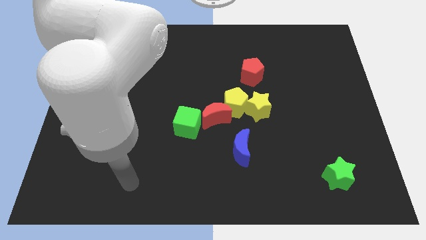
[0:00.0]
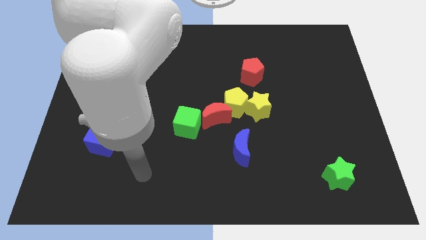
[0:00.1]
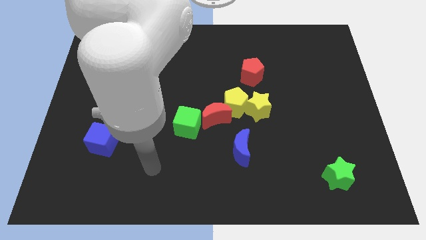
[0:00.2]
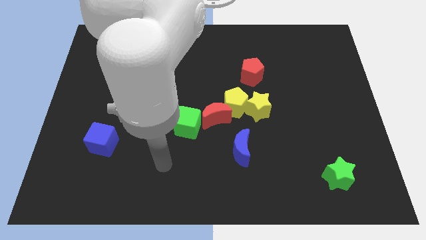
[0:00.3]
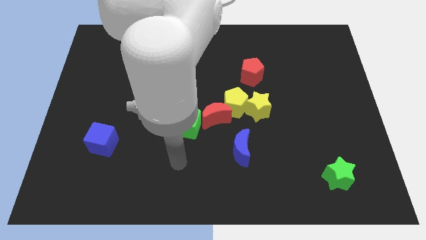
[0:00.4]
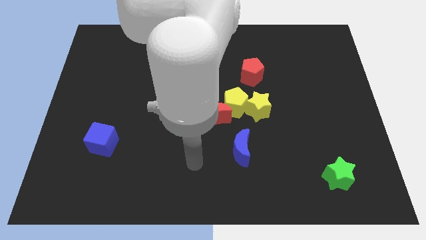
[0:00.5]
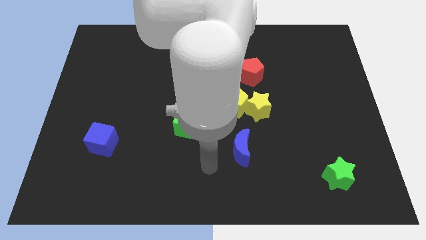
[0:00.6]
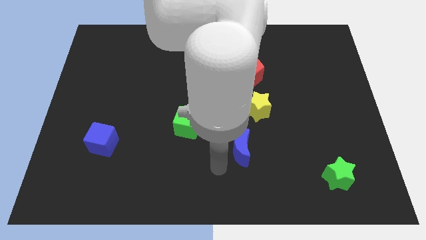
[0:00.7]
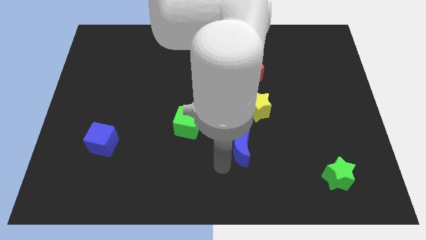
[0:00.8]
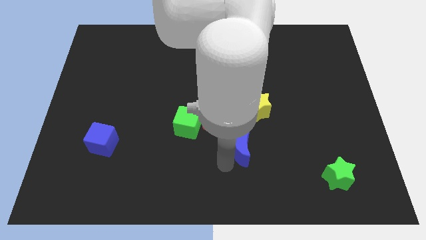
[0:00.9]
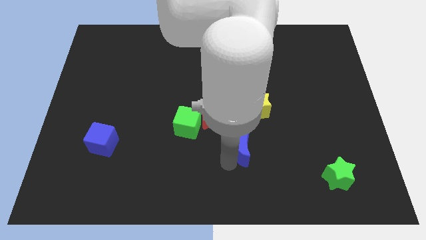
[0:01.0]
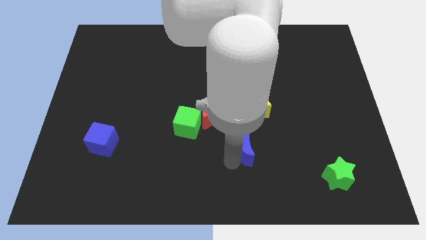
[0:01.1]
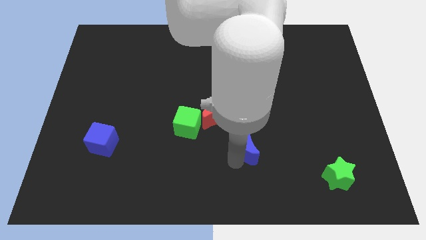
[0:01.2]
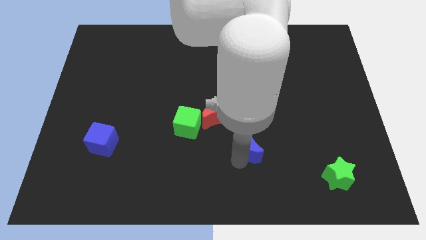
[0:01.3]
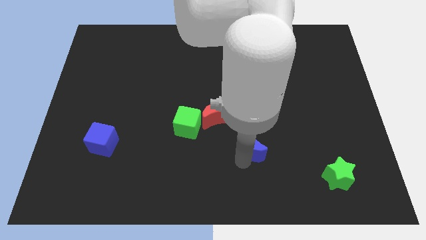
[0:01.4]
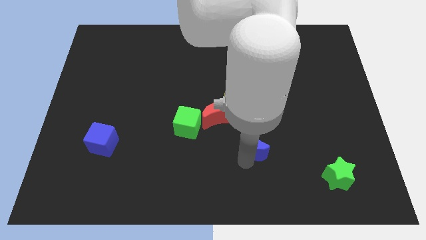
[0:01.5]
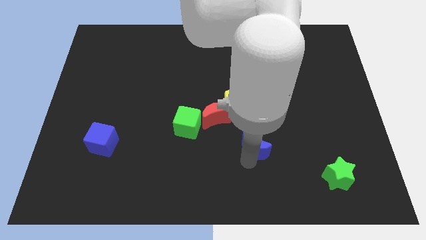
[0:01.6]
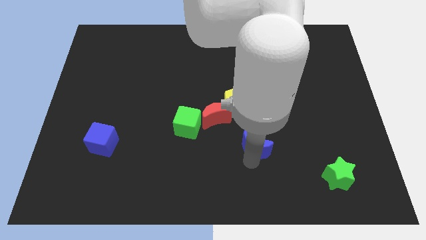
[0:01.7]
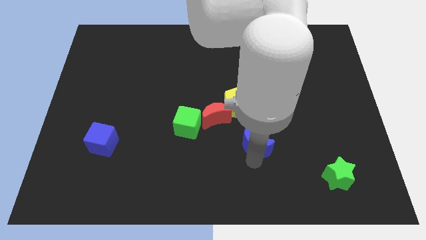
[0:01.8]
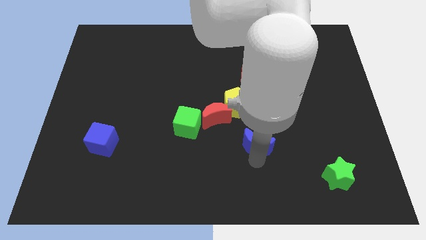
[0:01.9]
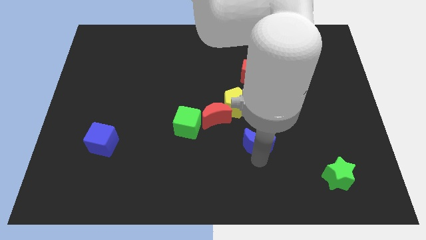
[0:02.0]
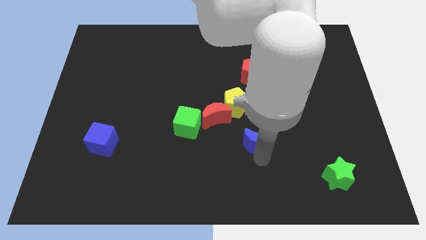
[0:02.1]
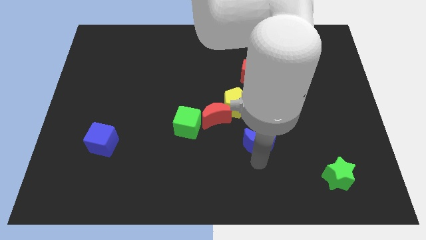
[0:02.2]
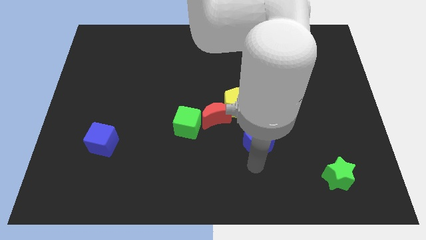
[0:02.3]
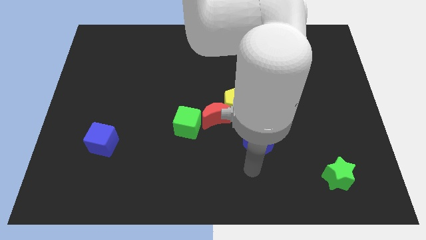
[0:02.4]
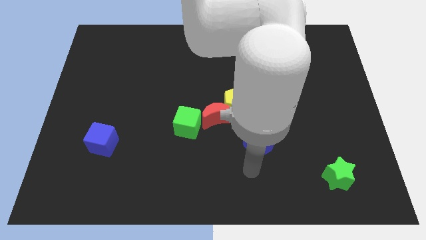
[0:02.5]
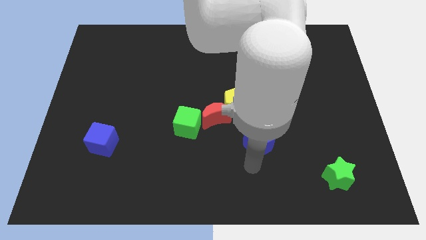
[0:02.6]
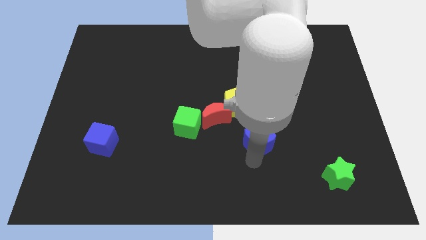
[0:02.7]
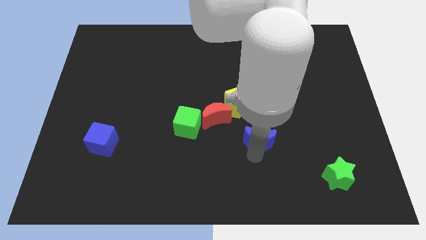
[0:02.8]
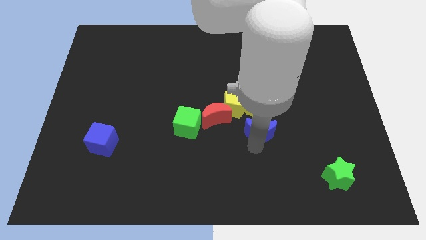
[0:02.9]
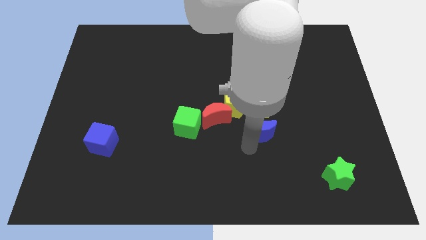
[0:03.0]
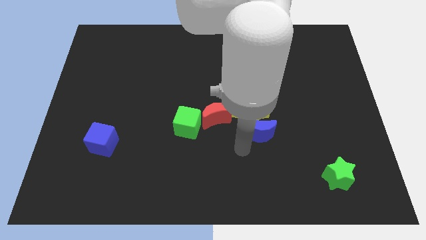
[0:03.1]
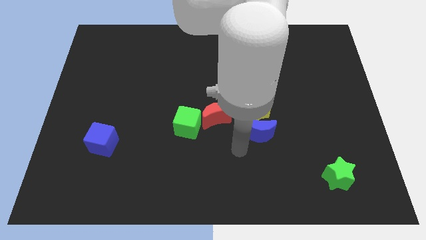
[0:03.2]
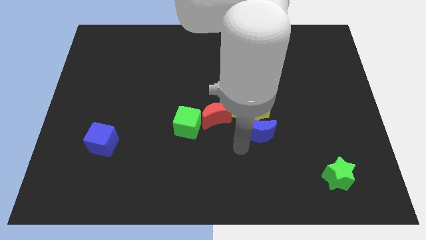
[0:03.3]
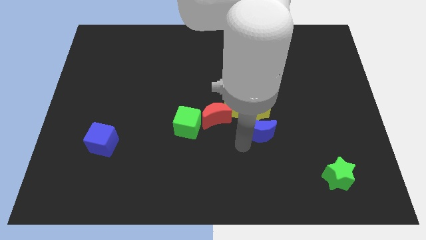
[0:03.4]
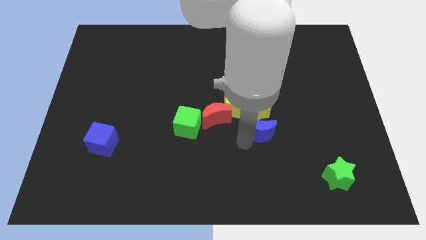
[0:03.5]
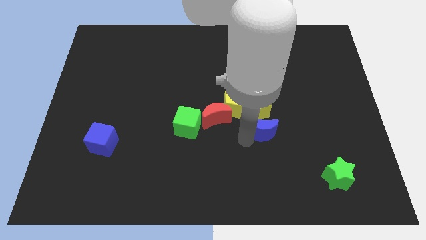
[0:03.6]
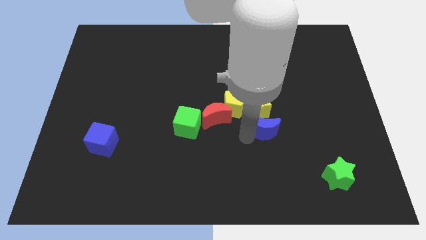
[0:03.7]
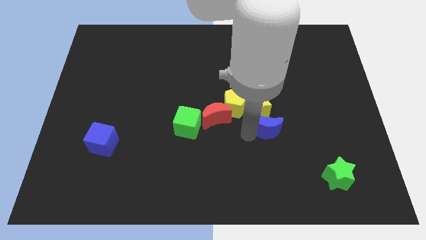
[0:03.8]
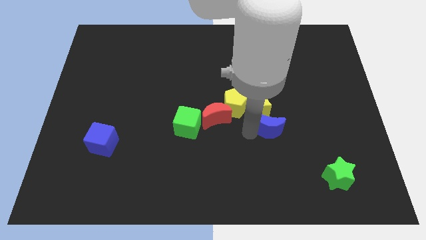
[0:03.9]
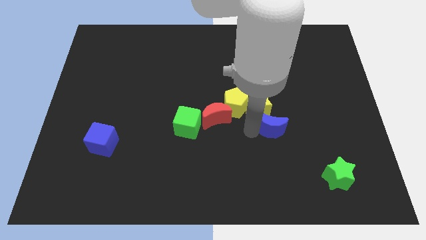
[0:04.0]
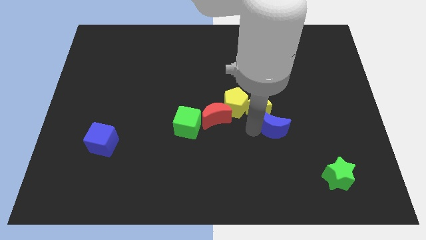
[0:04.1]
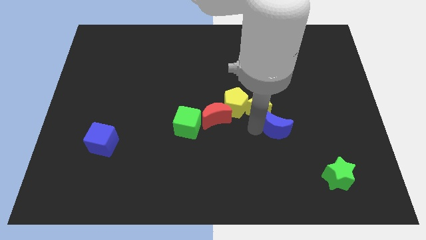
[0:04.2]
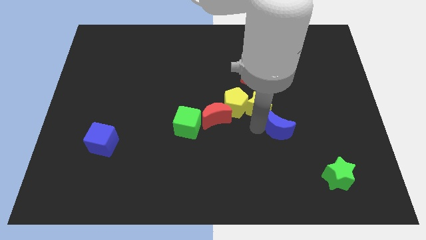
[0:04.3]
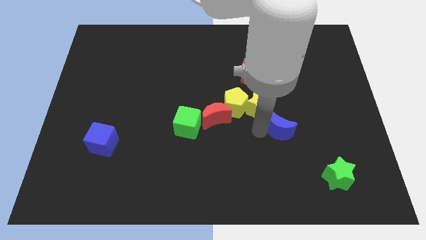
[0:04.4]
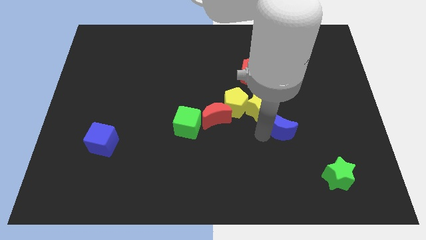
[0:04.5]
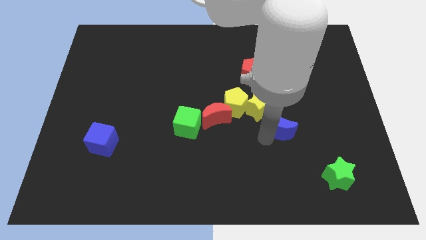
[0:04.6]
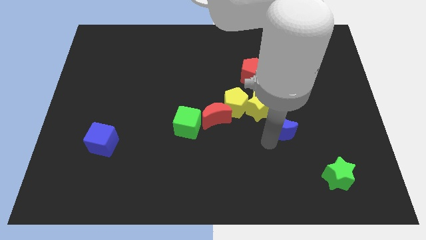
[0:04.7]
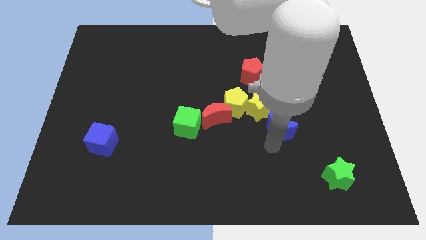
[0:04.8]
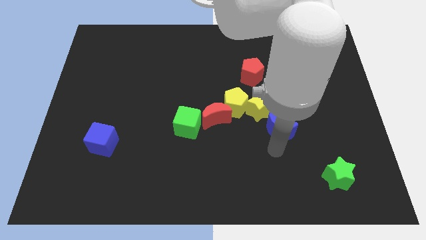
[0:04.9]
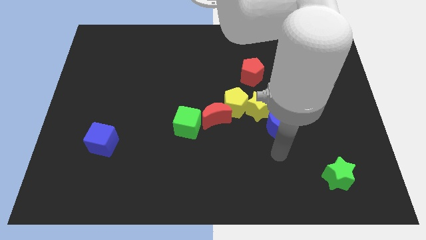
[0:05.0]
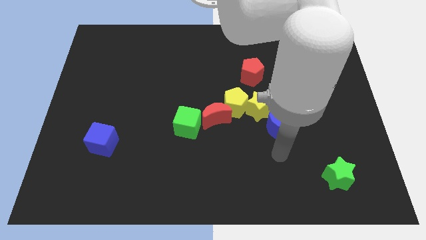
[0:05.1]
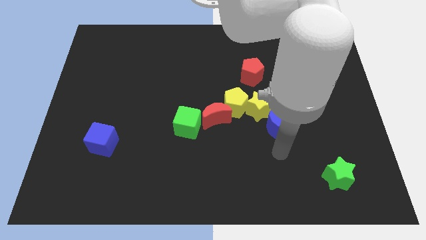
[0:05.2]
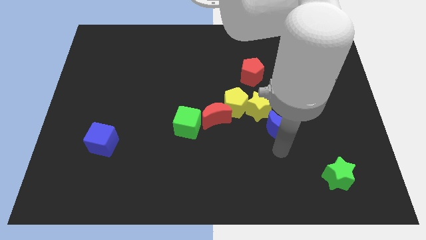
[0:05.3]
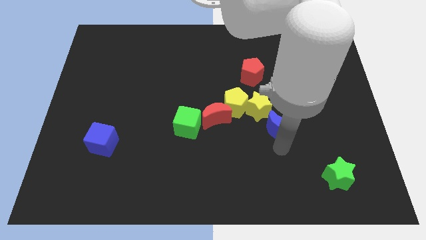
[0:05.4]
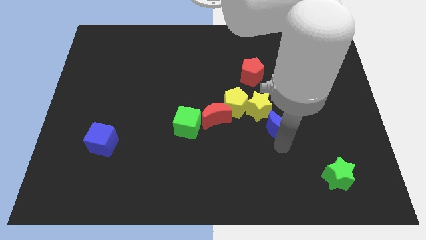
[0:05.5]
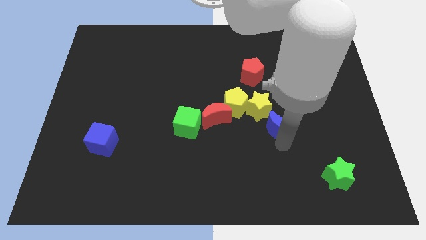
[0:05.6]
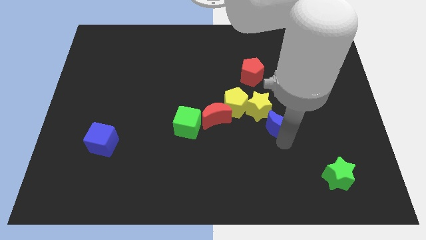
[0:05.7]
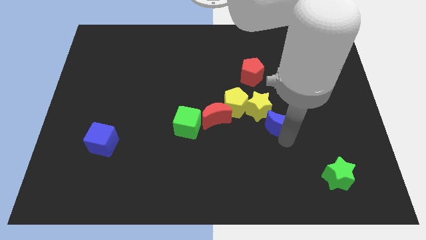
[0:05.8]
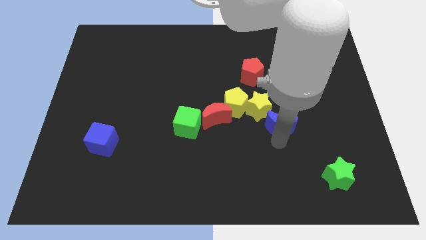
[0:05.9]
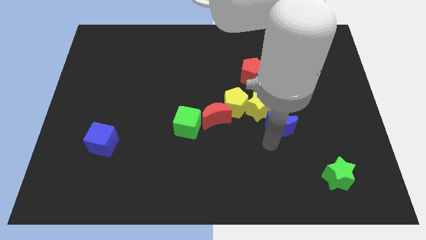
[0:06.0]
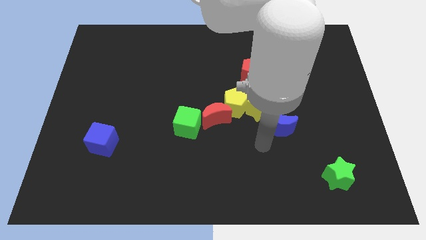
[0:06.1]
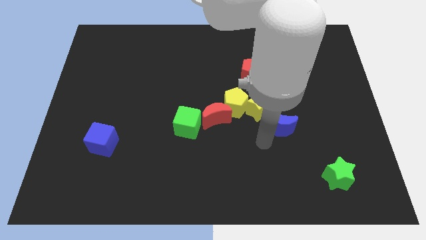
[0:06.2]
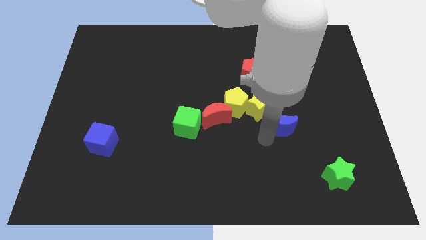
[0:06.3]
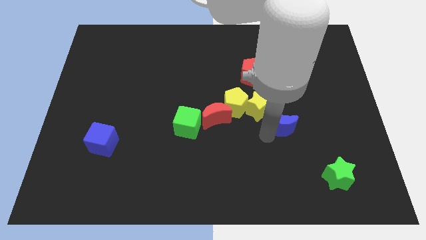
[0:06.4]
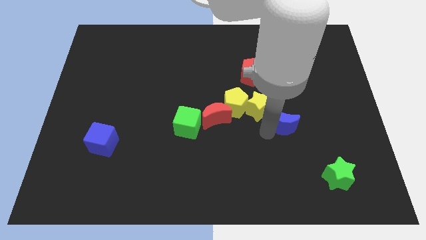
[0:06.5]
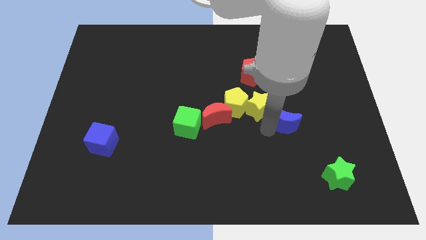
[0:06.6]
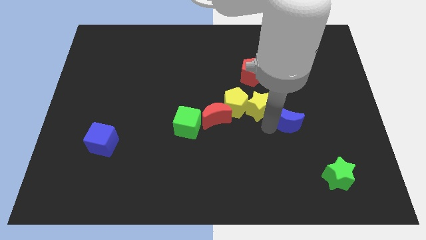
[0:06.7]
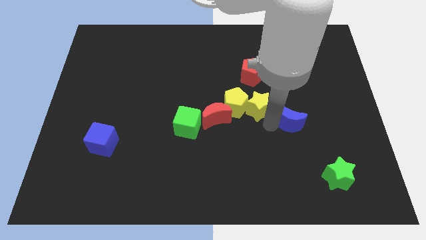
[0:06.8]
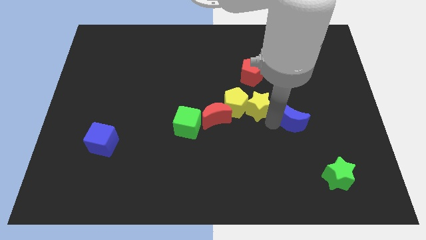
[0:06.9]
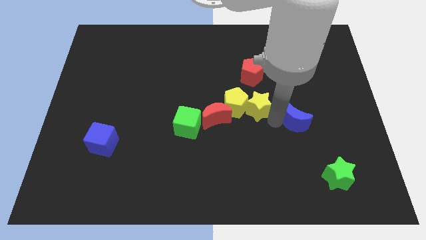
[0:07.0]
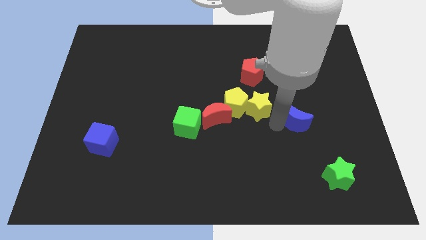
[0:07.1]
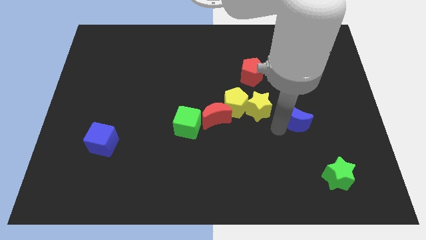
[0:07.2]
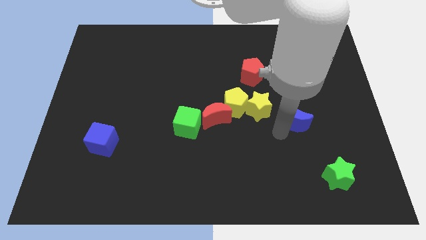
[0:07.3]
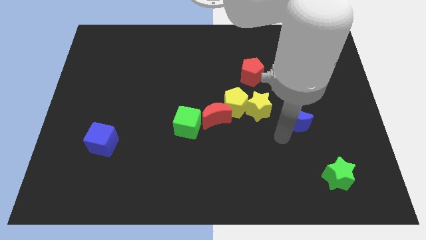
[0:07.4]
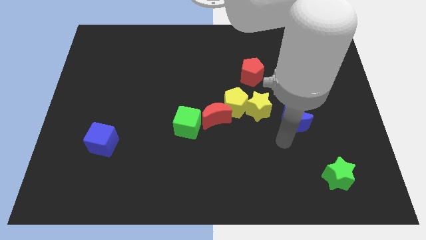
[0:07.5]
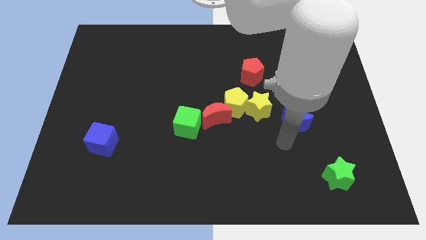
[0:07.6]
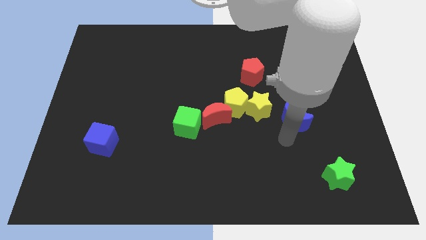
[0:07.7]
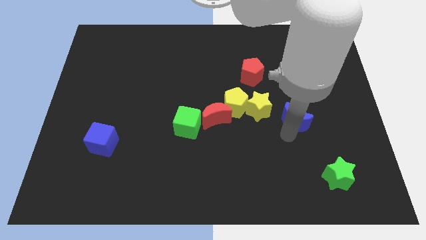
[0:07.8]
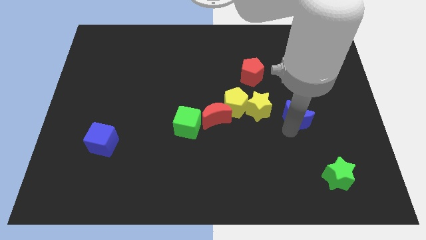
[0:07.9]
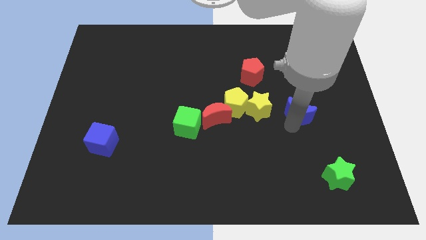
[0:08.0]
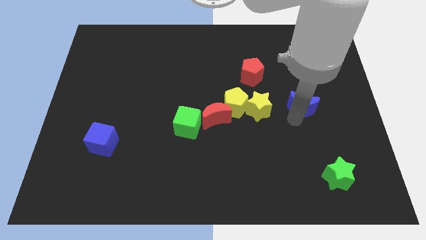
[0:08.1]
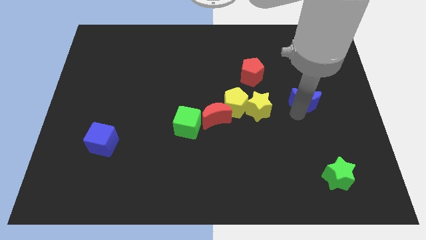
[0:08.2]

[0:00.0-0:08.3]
move the blue moon up and then to the right
